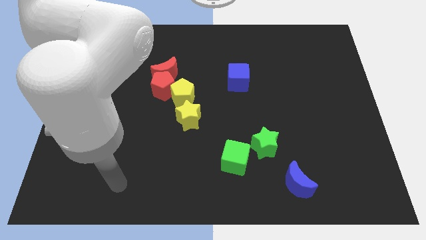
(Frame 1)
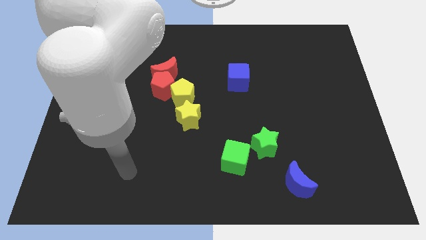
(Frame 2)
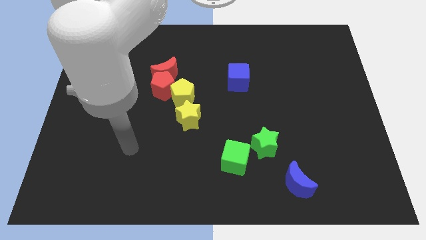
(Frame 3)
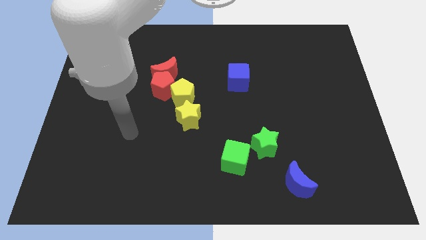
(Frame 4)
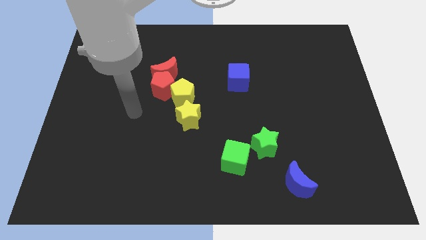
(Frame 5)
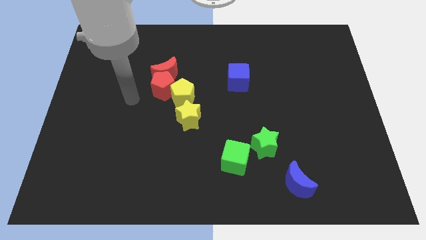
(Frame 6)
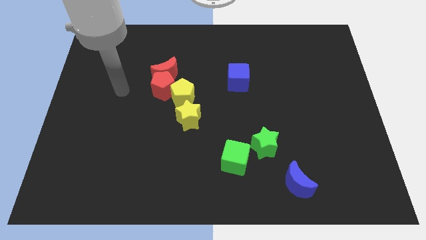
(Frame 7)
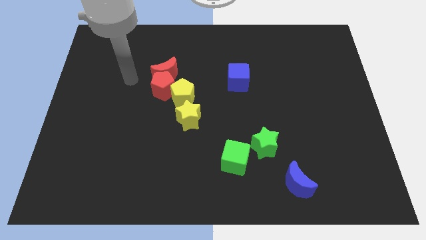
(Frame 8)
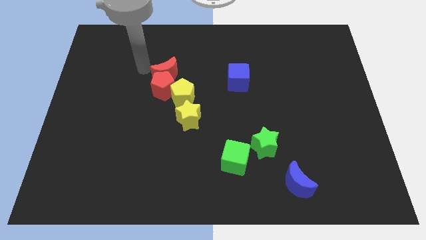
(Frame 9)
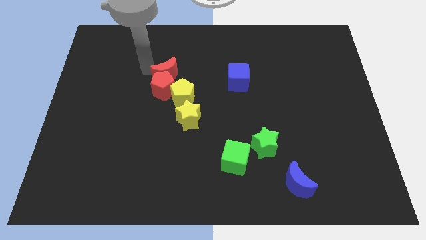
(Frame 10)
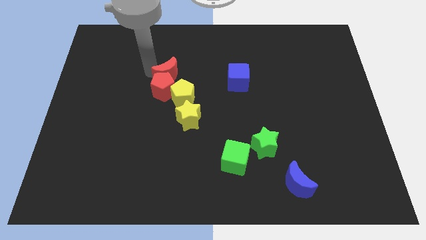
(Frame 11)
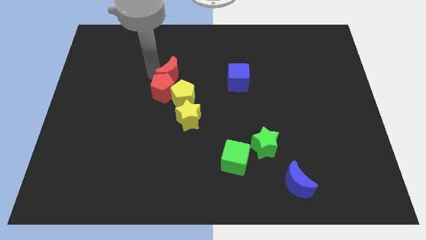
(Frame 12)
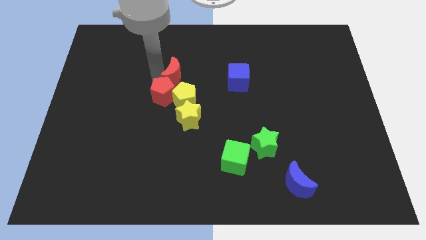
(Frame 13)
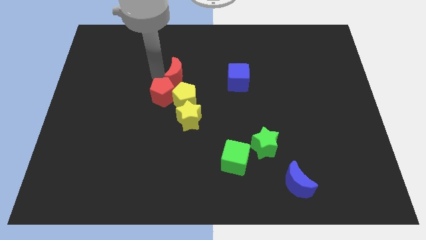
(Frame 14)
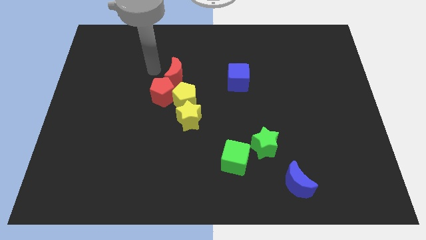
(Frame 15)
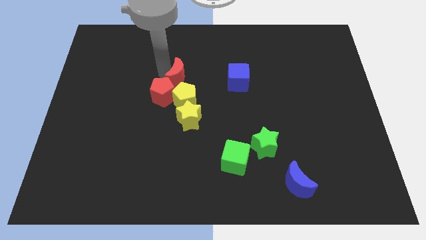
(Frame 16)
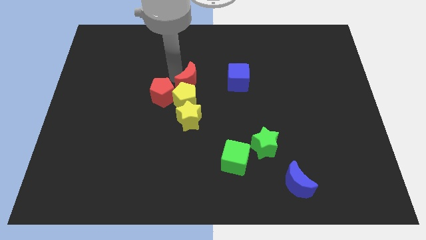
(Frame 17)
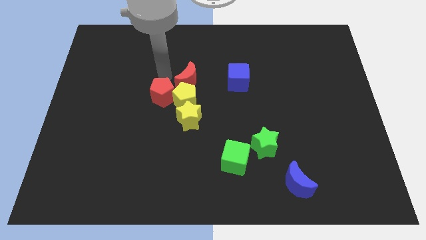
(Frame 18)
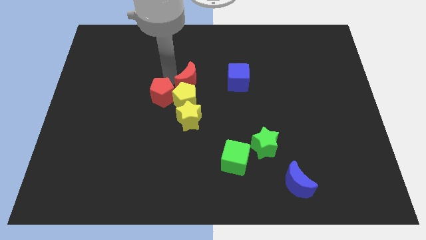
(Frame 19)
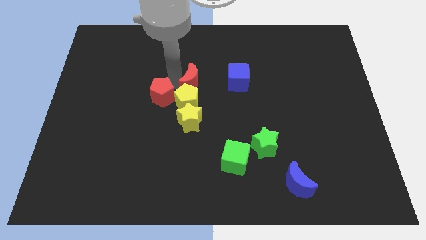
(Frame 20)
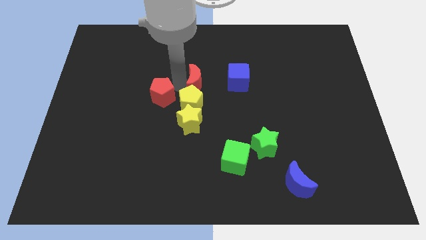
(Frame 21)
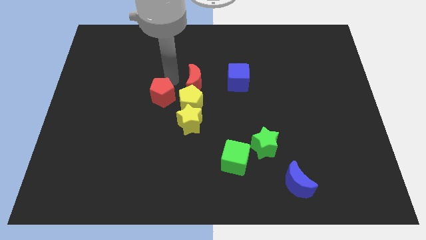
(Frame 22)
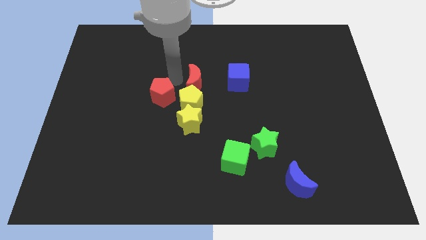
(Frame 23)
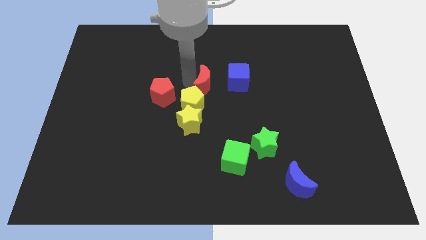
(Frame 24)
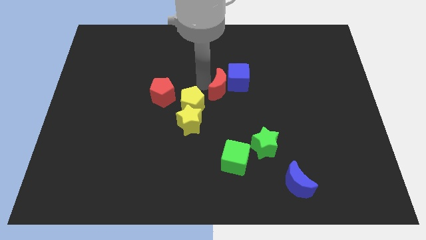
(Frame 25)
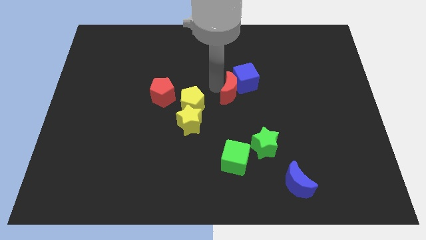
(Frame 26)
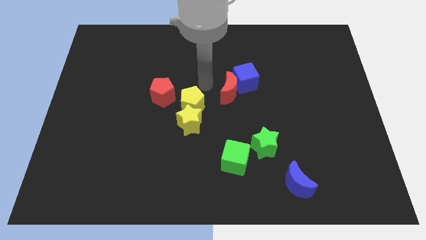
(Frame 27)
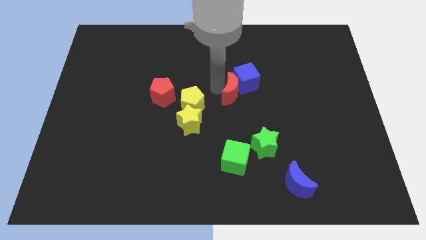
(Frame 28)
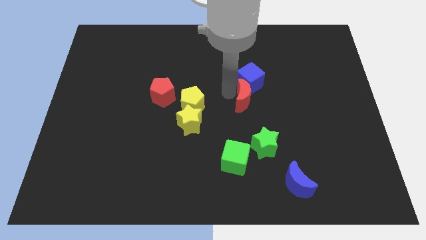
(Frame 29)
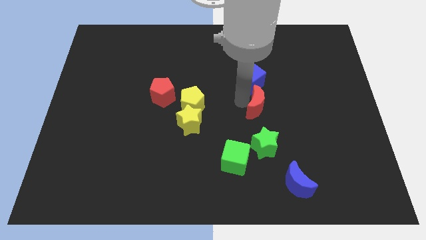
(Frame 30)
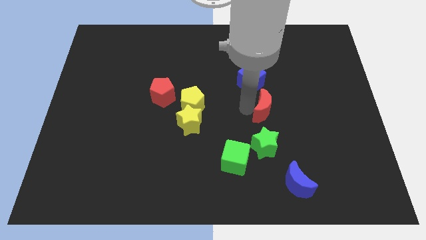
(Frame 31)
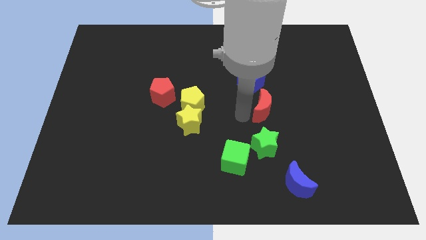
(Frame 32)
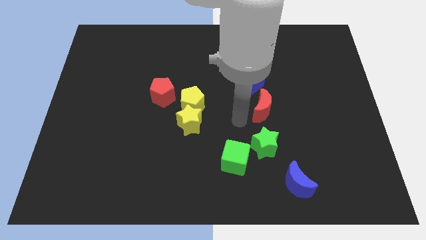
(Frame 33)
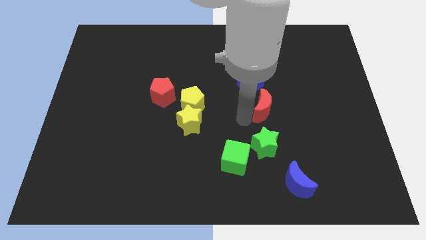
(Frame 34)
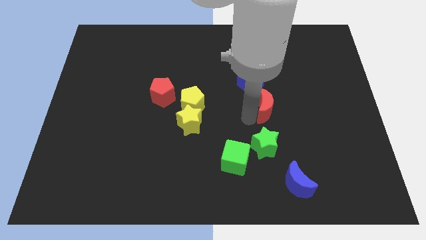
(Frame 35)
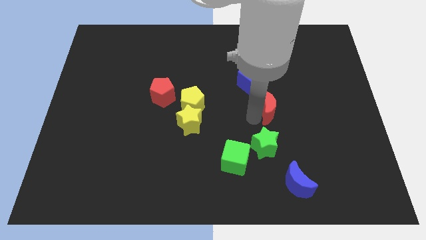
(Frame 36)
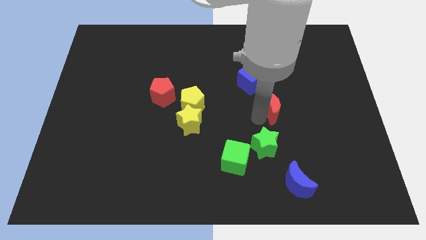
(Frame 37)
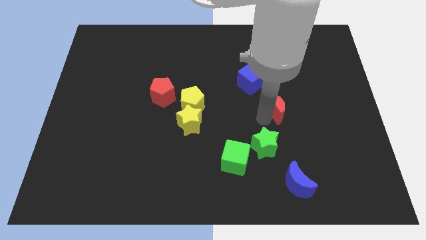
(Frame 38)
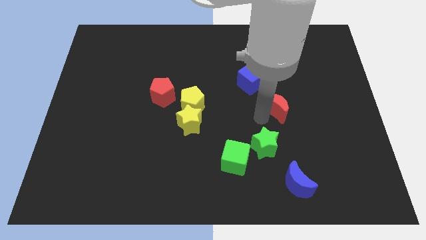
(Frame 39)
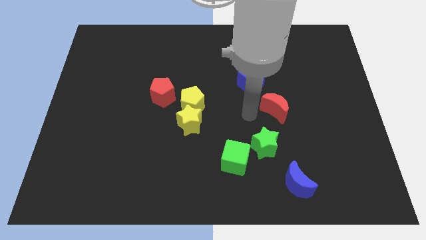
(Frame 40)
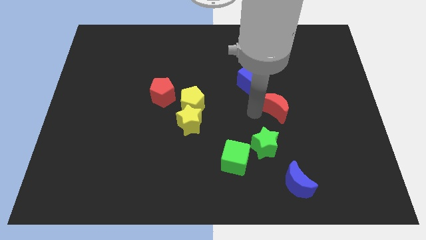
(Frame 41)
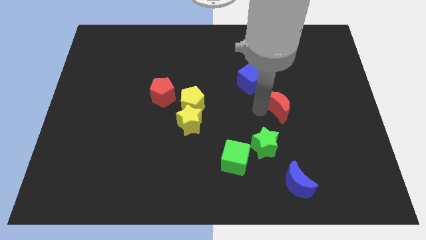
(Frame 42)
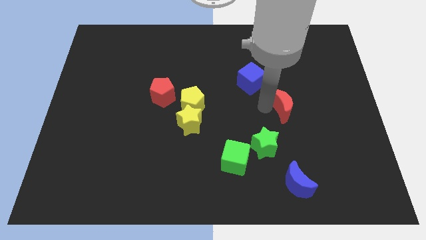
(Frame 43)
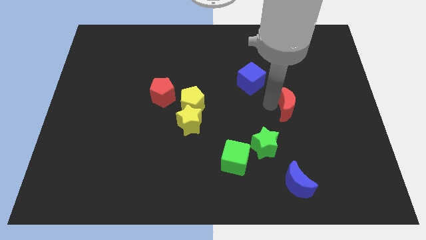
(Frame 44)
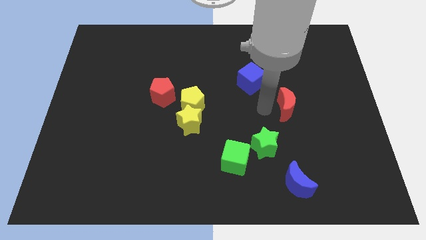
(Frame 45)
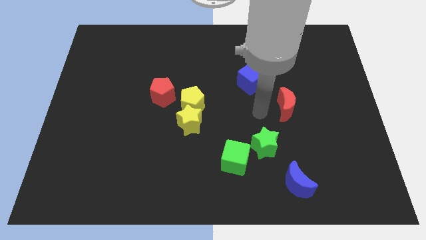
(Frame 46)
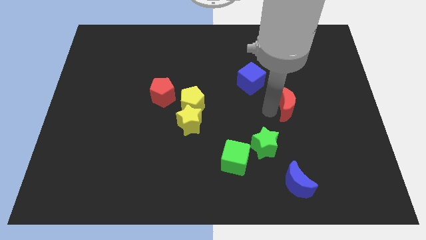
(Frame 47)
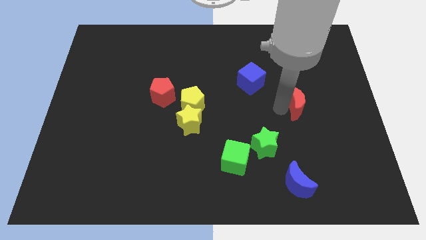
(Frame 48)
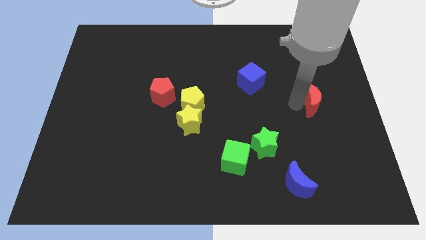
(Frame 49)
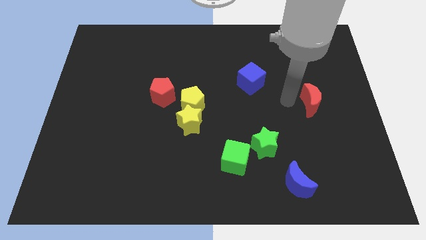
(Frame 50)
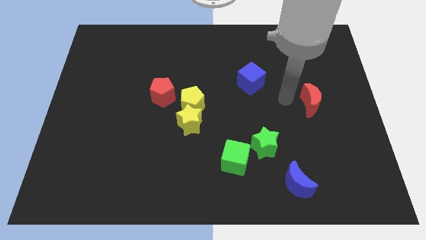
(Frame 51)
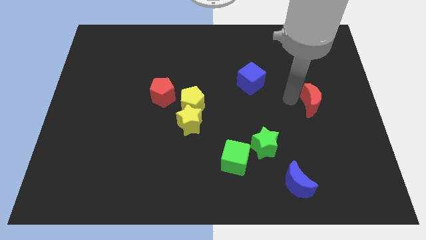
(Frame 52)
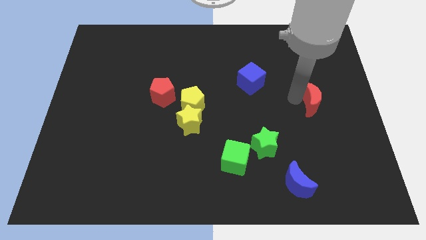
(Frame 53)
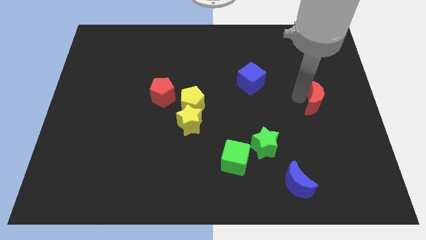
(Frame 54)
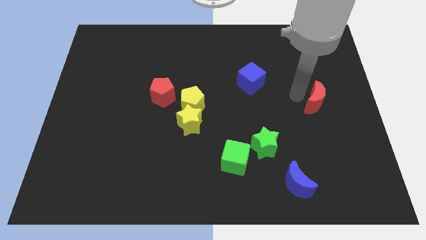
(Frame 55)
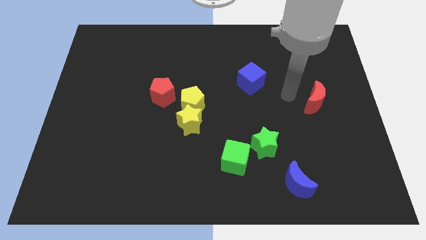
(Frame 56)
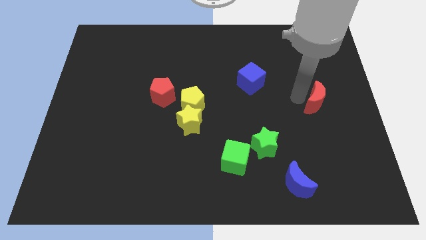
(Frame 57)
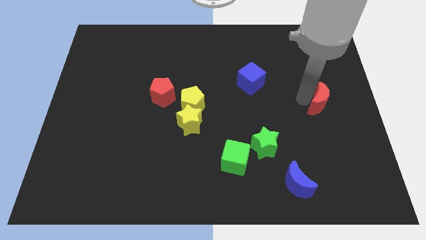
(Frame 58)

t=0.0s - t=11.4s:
push the red moon to the center right
